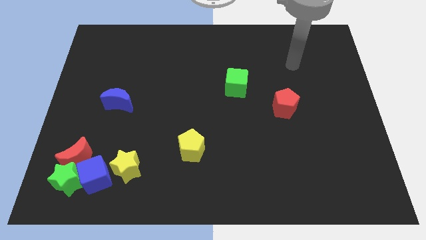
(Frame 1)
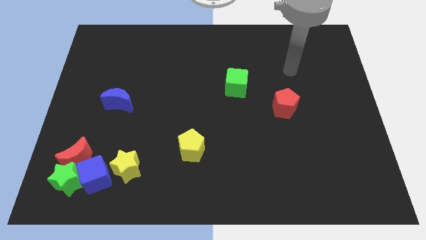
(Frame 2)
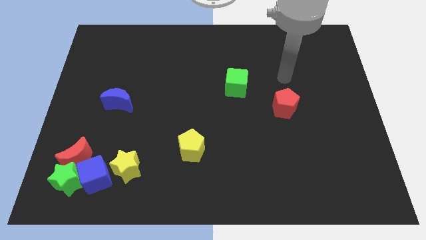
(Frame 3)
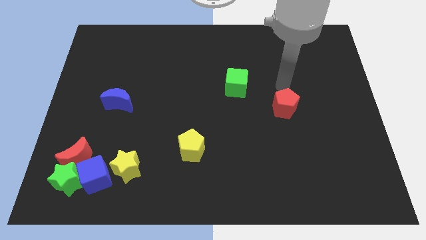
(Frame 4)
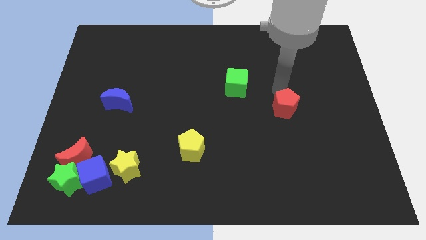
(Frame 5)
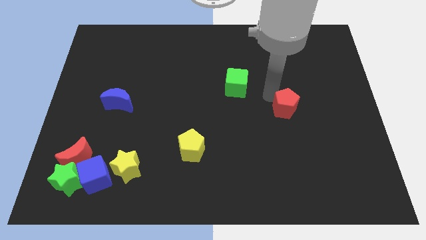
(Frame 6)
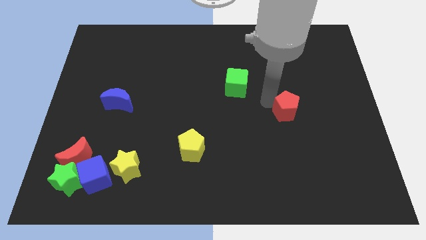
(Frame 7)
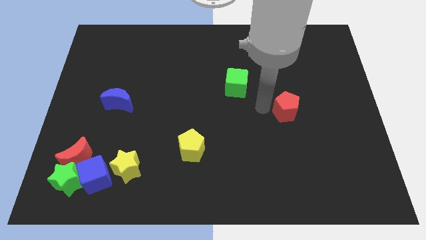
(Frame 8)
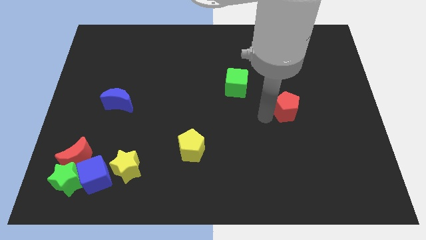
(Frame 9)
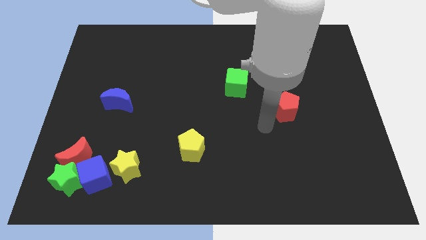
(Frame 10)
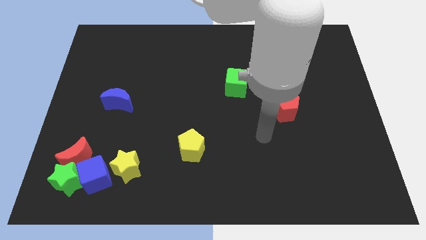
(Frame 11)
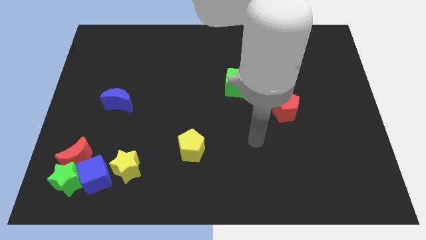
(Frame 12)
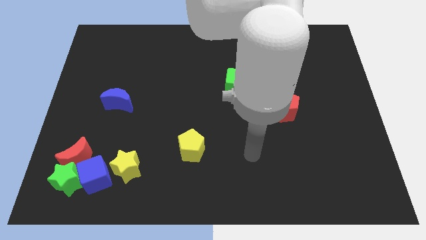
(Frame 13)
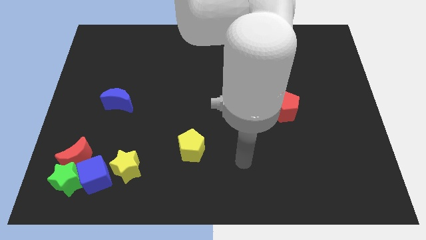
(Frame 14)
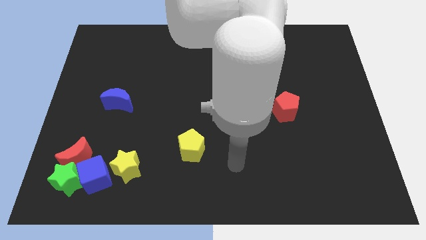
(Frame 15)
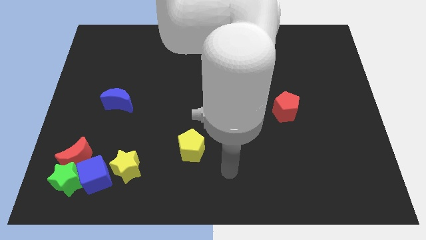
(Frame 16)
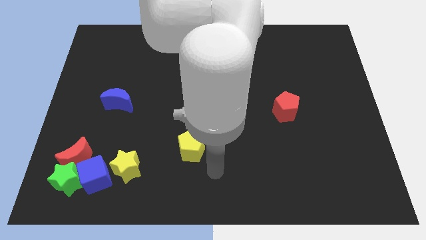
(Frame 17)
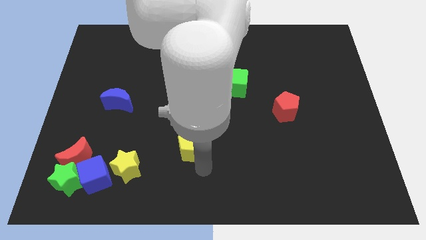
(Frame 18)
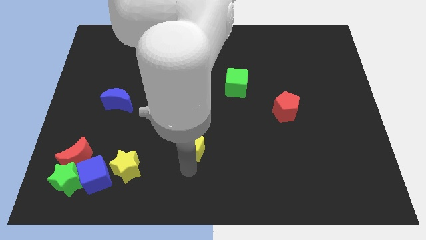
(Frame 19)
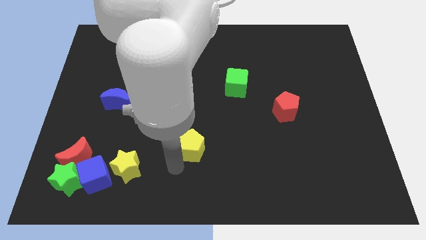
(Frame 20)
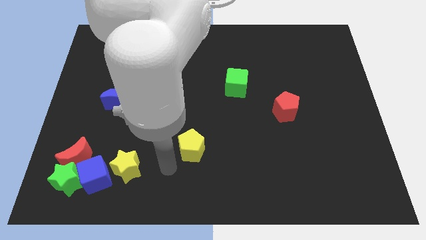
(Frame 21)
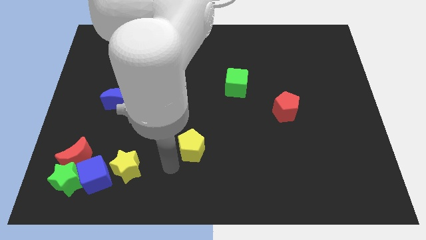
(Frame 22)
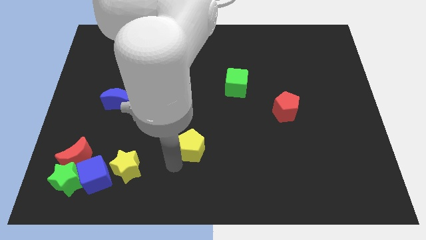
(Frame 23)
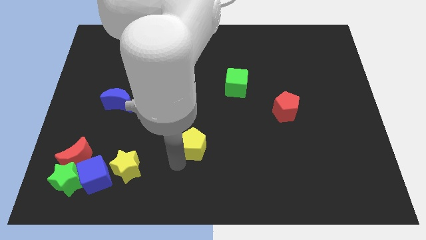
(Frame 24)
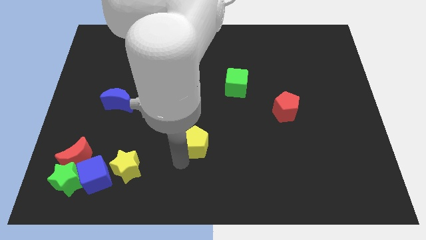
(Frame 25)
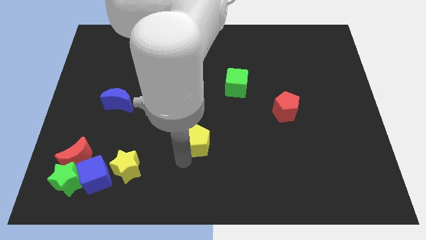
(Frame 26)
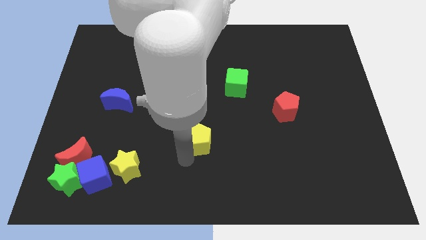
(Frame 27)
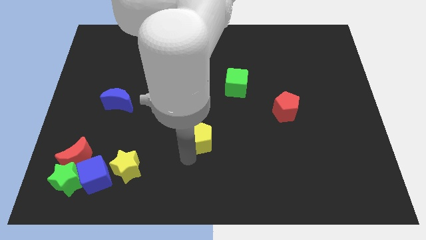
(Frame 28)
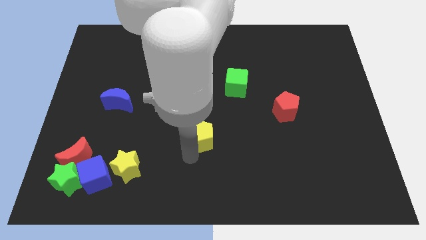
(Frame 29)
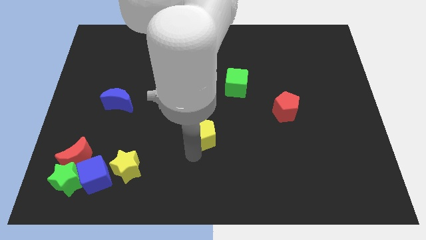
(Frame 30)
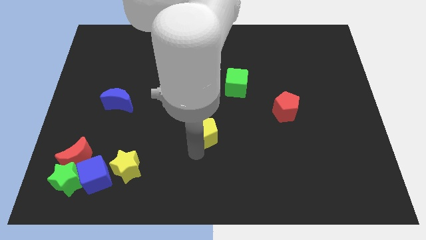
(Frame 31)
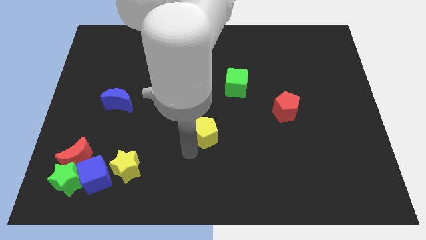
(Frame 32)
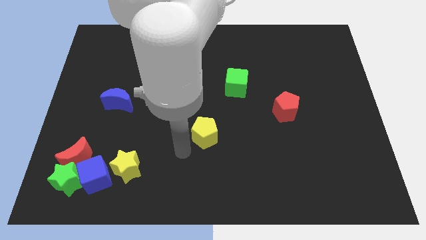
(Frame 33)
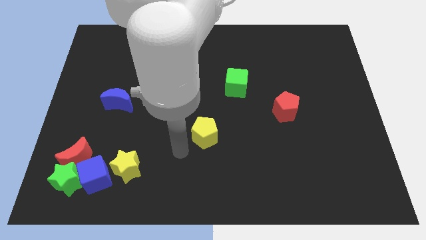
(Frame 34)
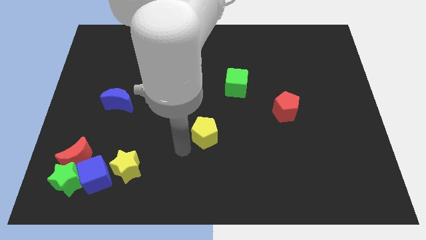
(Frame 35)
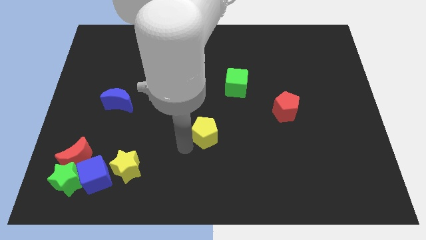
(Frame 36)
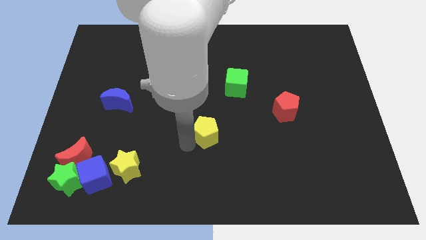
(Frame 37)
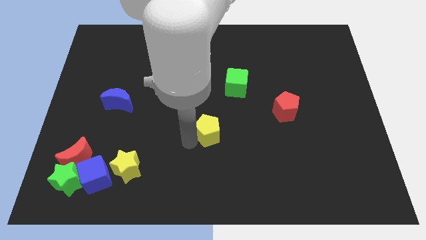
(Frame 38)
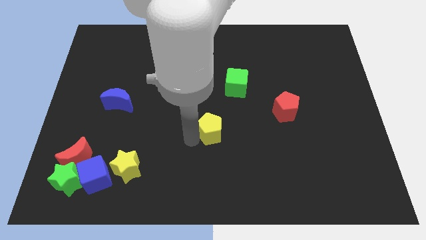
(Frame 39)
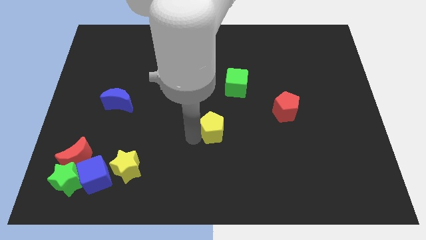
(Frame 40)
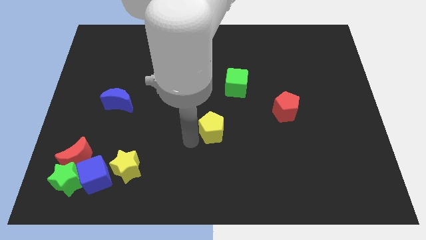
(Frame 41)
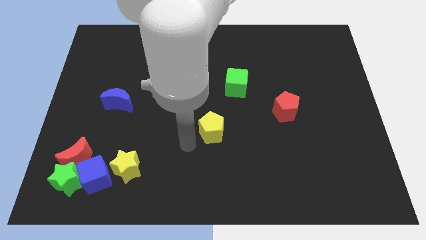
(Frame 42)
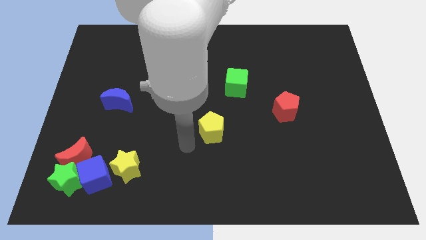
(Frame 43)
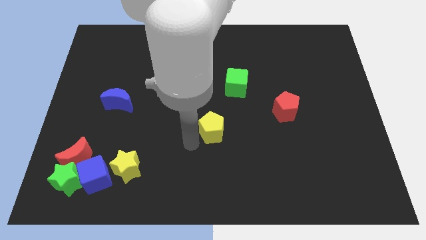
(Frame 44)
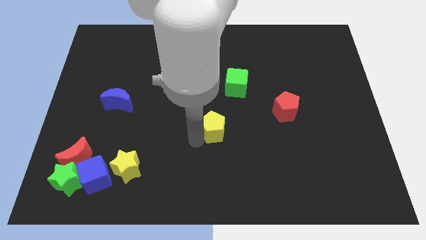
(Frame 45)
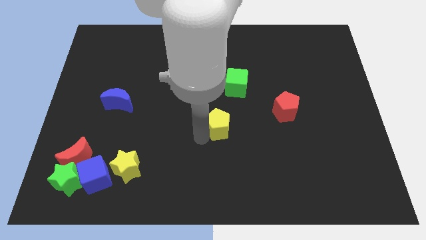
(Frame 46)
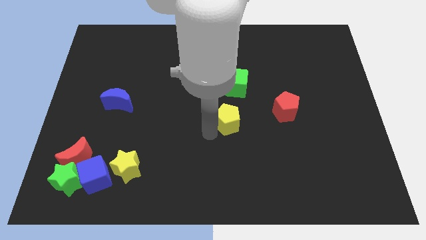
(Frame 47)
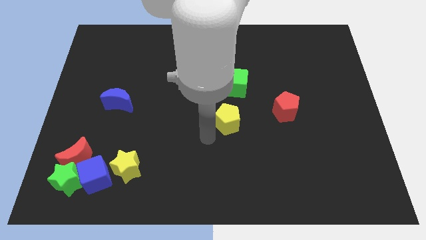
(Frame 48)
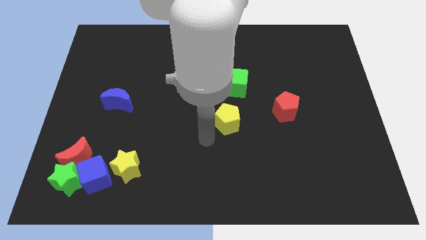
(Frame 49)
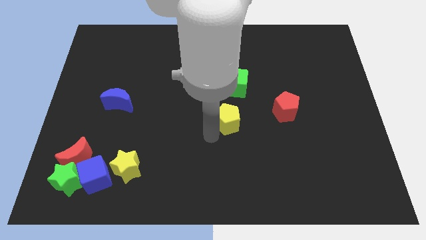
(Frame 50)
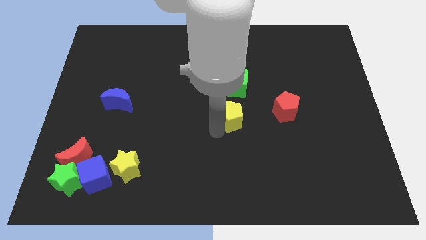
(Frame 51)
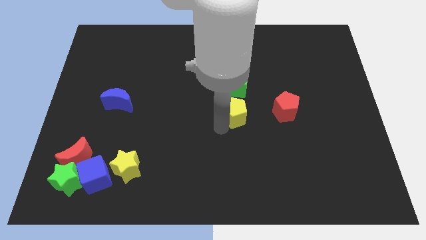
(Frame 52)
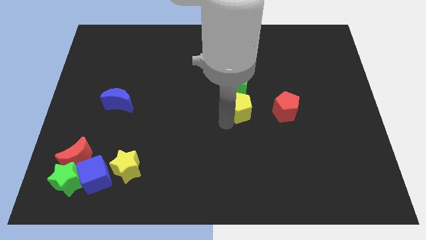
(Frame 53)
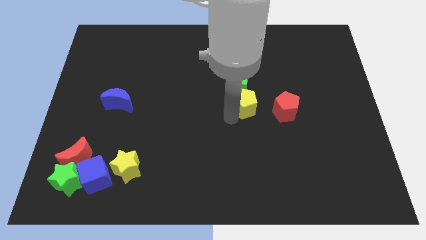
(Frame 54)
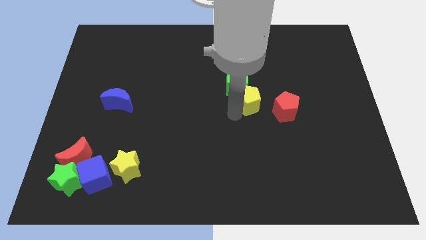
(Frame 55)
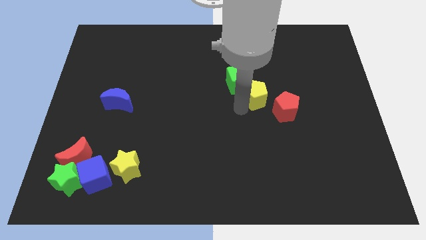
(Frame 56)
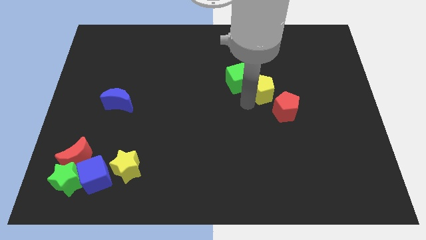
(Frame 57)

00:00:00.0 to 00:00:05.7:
move the yellow pentagon to the right side of the green cube

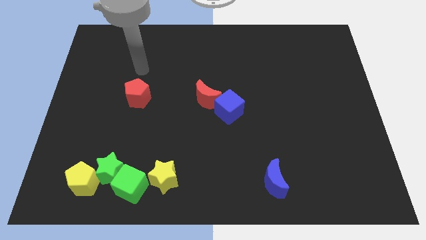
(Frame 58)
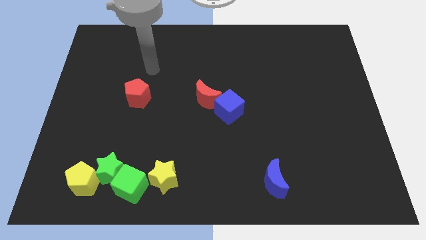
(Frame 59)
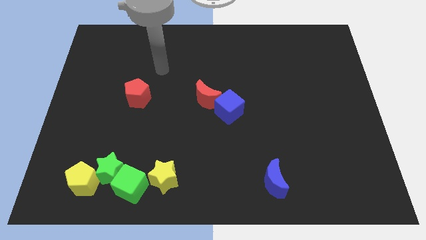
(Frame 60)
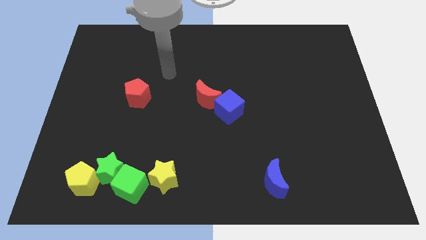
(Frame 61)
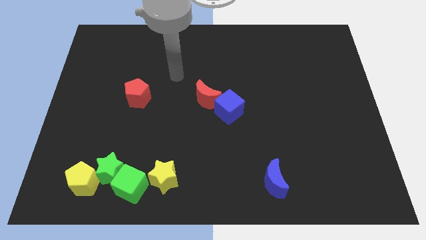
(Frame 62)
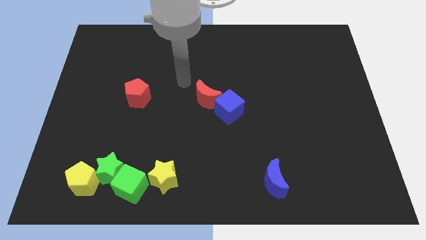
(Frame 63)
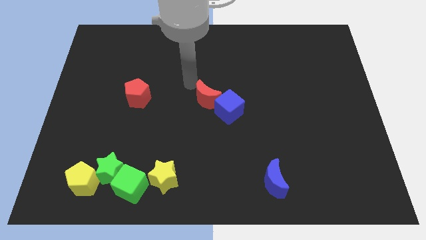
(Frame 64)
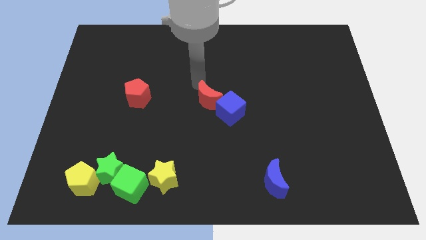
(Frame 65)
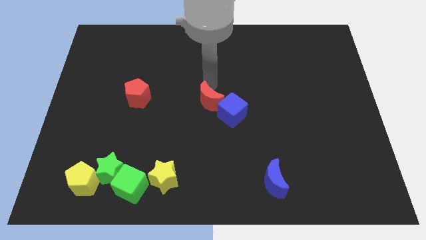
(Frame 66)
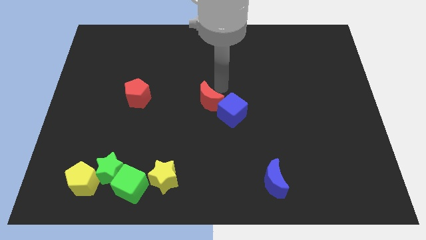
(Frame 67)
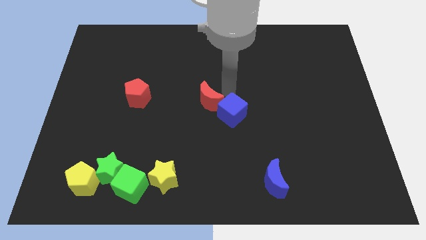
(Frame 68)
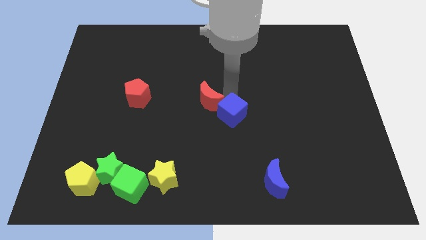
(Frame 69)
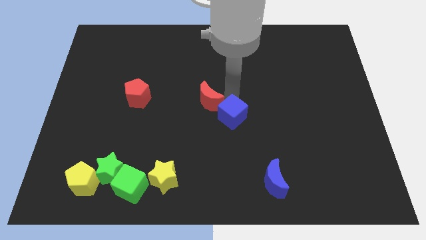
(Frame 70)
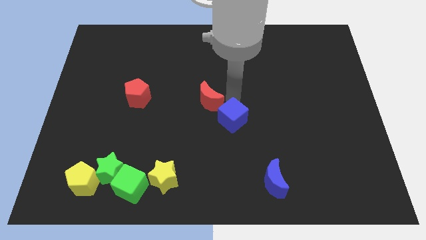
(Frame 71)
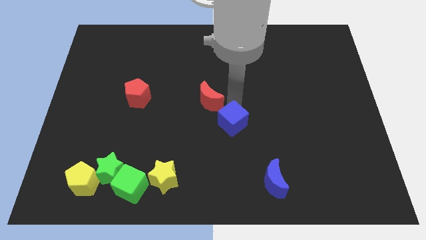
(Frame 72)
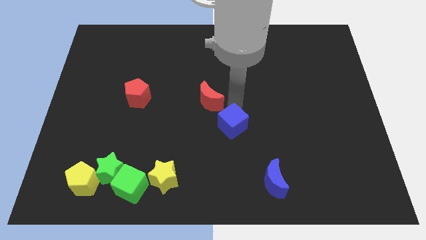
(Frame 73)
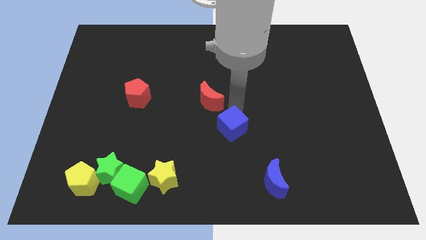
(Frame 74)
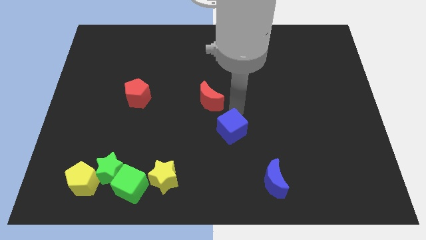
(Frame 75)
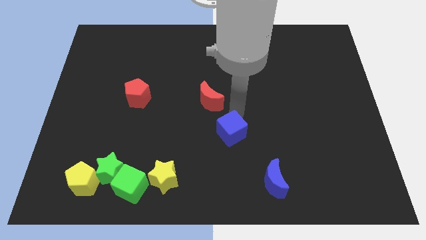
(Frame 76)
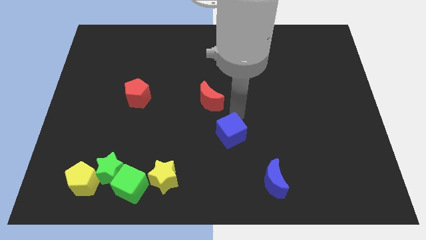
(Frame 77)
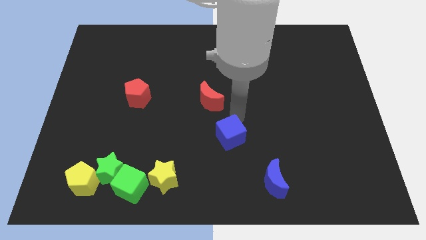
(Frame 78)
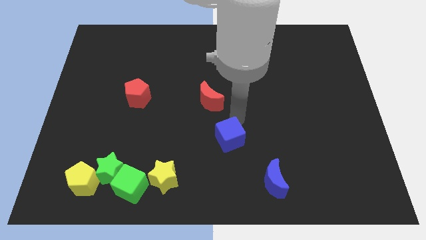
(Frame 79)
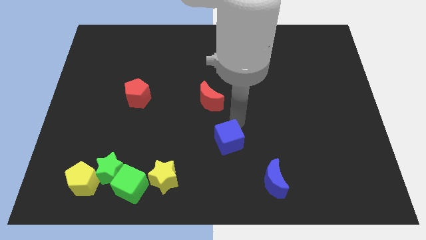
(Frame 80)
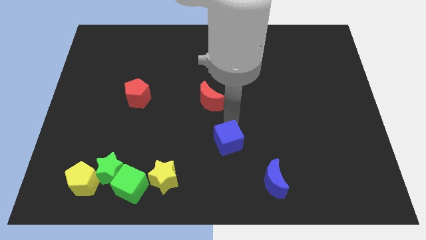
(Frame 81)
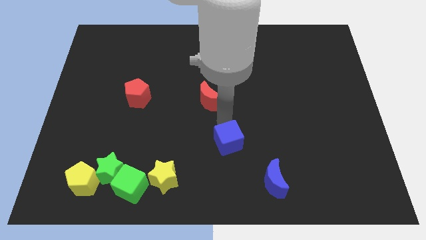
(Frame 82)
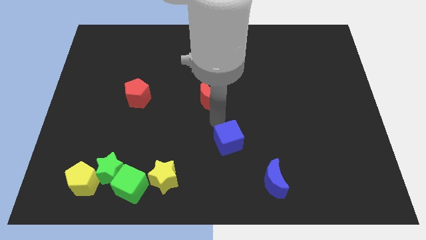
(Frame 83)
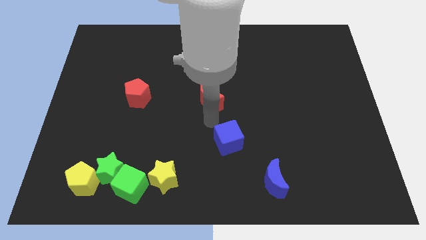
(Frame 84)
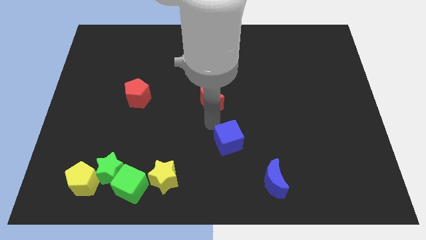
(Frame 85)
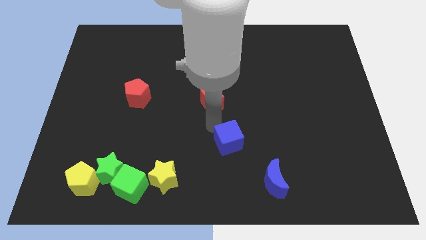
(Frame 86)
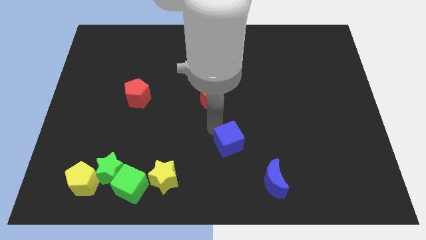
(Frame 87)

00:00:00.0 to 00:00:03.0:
put the blue cube to the top left of the blue moon
